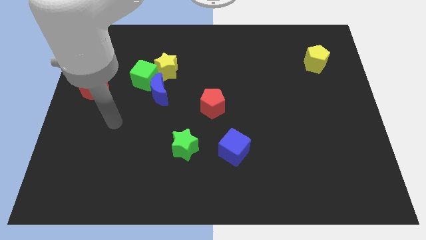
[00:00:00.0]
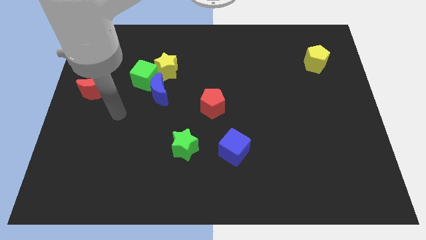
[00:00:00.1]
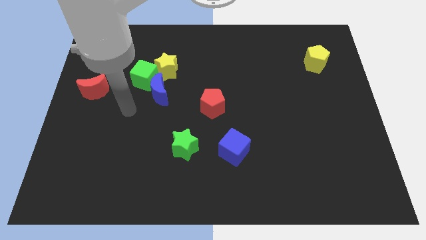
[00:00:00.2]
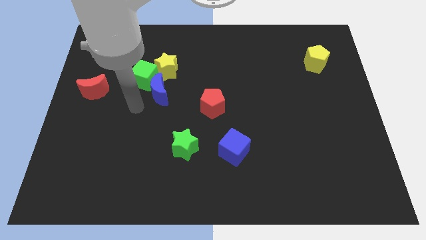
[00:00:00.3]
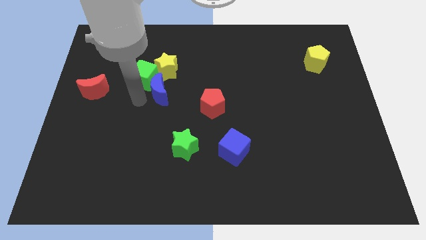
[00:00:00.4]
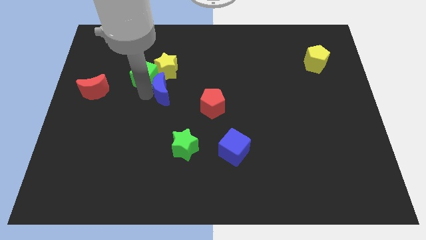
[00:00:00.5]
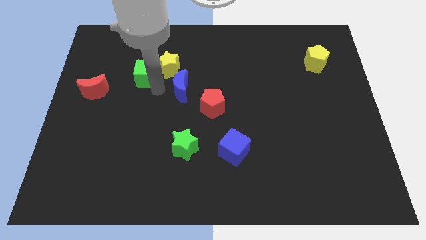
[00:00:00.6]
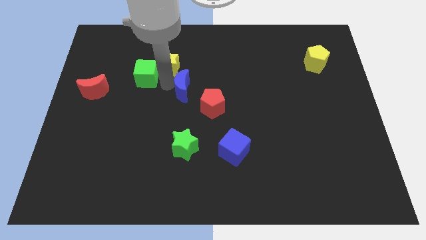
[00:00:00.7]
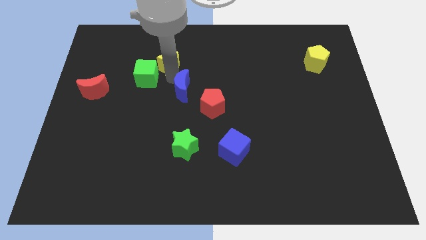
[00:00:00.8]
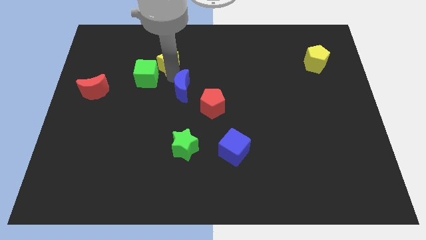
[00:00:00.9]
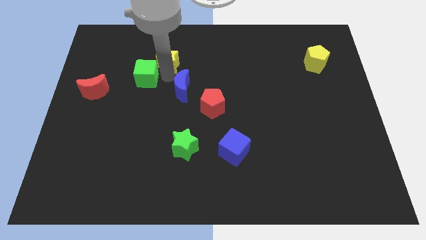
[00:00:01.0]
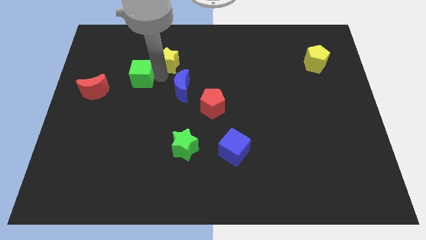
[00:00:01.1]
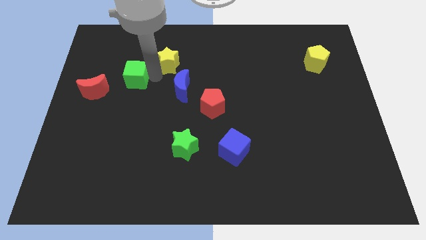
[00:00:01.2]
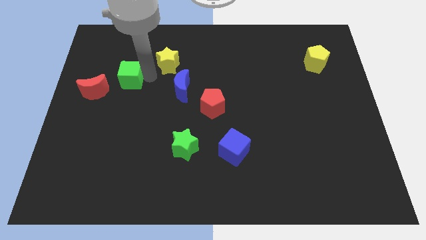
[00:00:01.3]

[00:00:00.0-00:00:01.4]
move the green cube away from the blue moon and yellow star

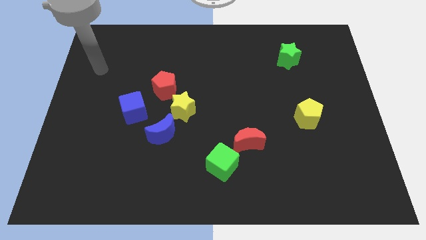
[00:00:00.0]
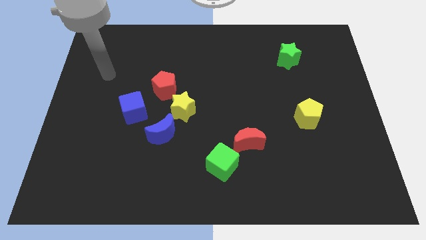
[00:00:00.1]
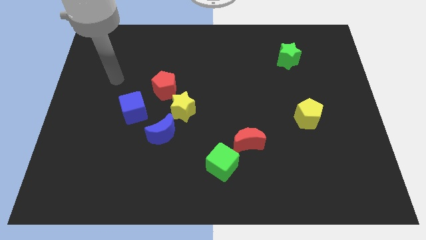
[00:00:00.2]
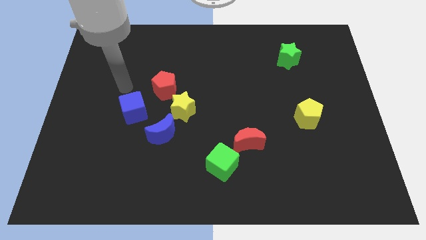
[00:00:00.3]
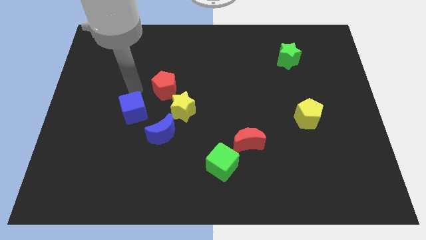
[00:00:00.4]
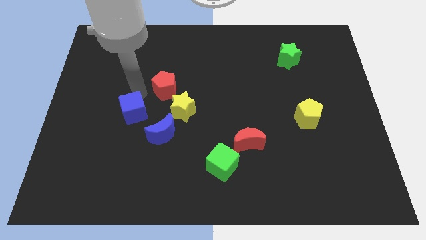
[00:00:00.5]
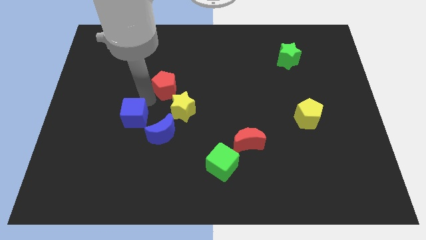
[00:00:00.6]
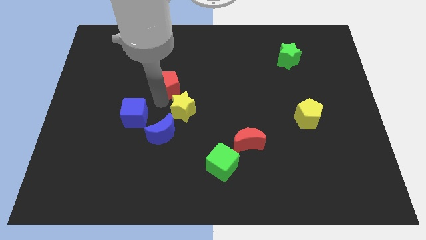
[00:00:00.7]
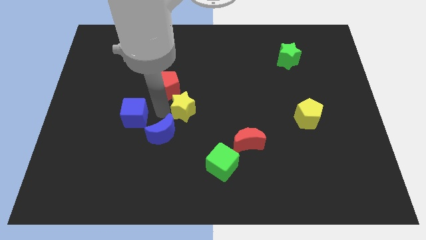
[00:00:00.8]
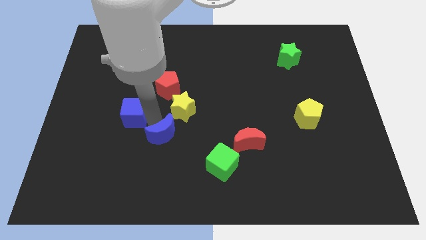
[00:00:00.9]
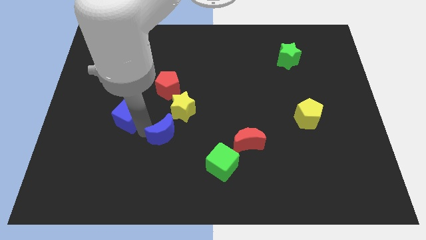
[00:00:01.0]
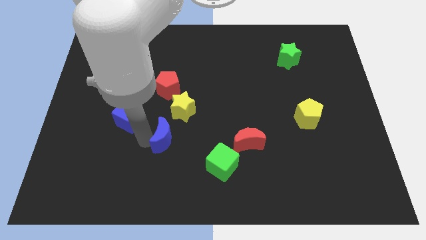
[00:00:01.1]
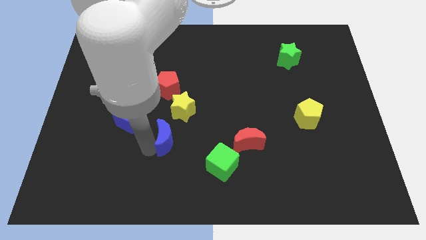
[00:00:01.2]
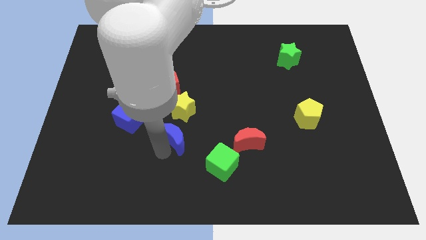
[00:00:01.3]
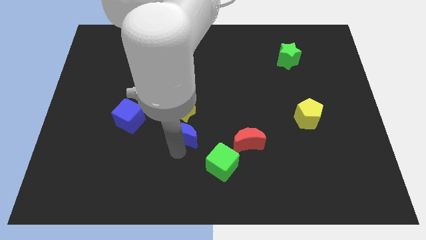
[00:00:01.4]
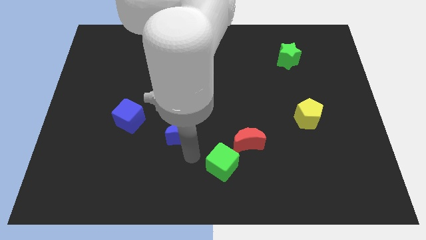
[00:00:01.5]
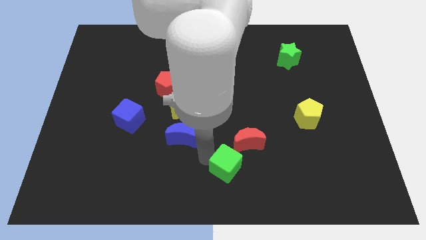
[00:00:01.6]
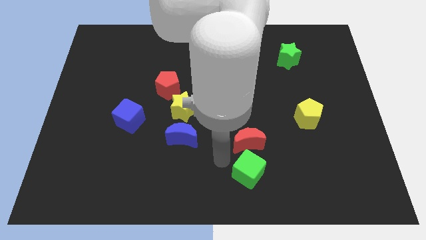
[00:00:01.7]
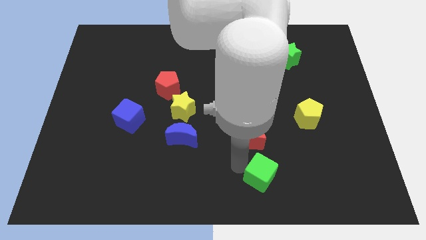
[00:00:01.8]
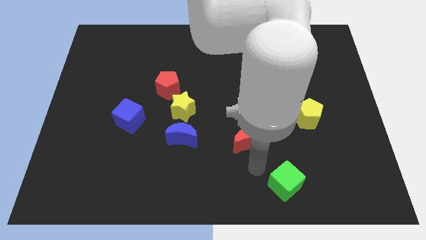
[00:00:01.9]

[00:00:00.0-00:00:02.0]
separate the red moon from the green cube

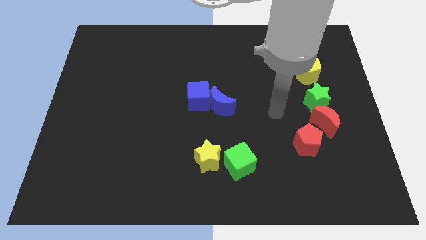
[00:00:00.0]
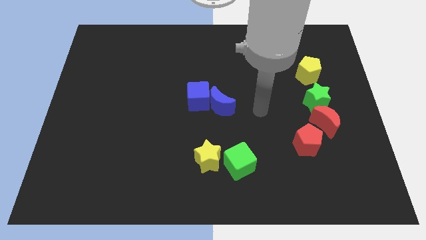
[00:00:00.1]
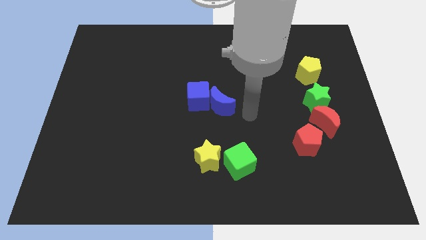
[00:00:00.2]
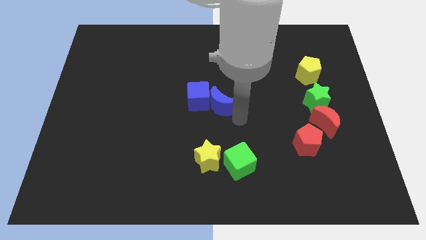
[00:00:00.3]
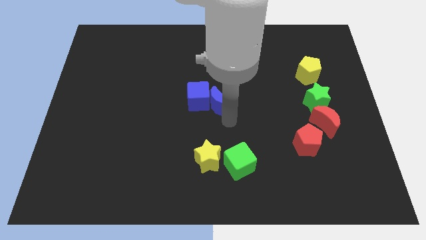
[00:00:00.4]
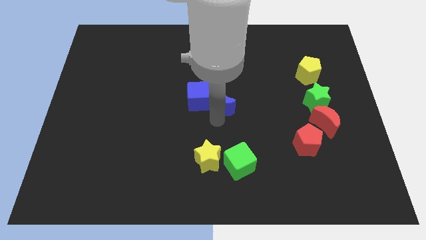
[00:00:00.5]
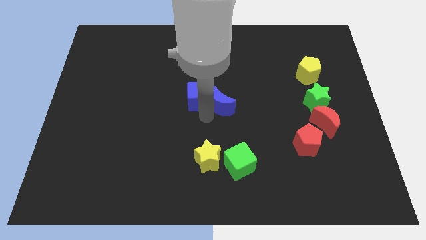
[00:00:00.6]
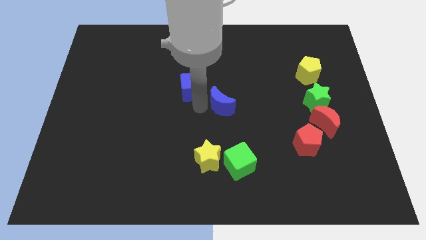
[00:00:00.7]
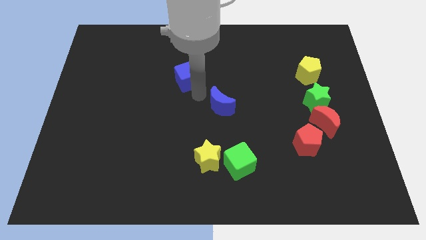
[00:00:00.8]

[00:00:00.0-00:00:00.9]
separate the blue moon from the blue cube

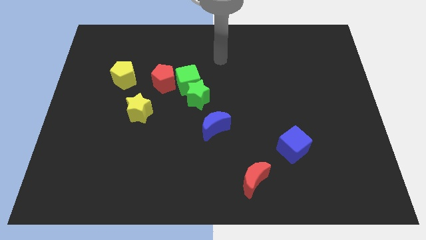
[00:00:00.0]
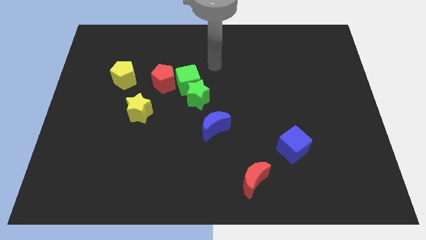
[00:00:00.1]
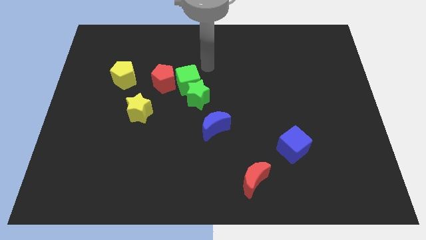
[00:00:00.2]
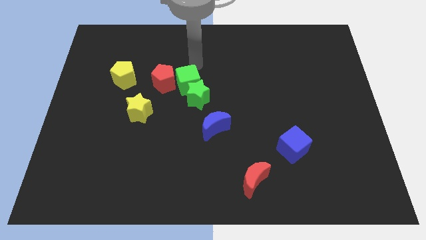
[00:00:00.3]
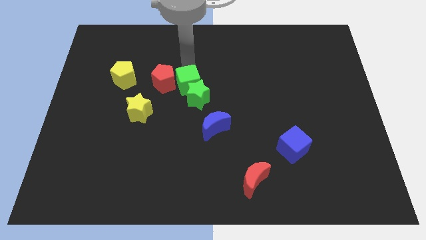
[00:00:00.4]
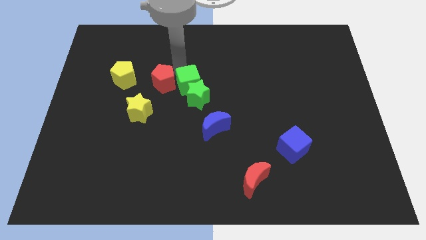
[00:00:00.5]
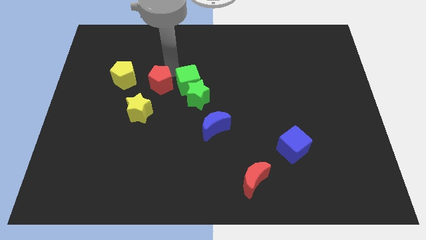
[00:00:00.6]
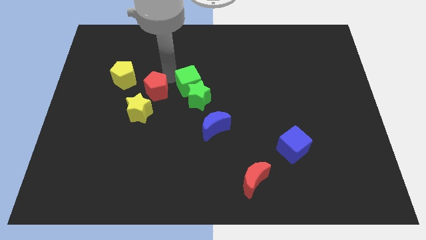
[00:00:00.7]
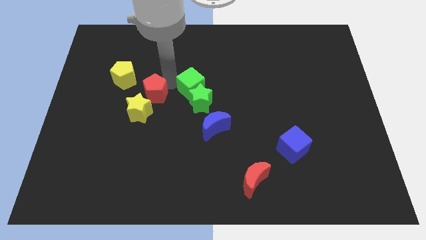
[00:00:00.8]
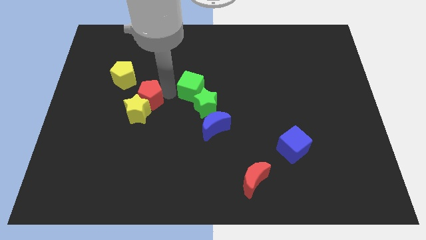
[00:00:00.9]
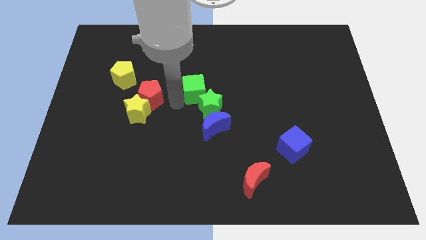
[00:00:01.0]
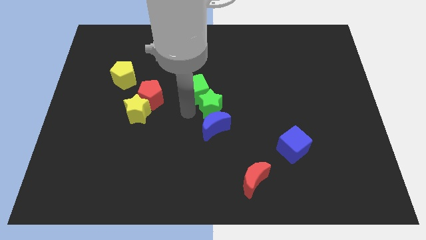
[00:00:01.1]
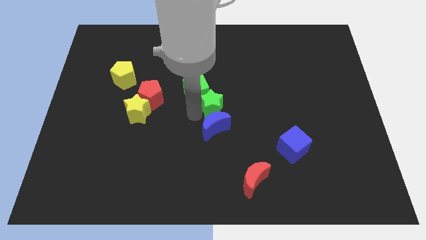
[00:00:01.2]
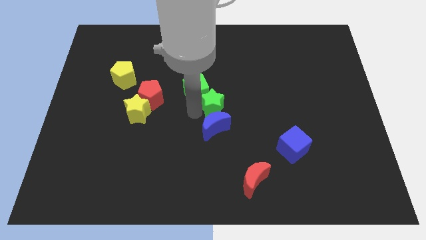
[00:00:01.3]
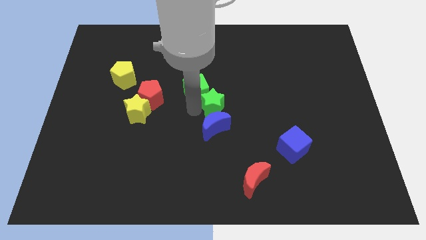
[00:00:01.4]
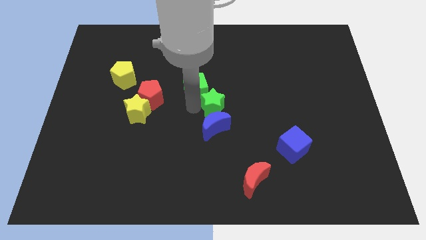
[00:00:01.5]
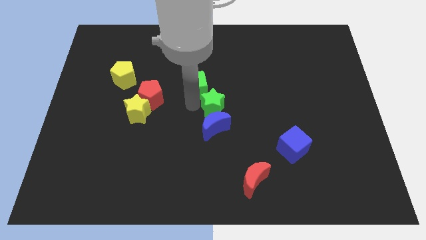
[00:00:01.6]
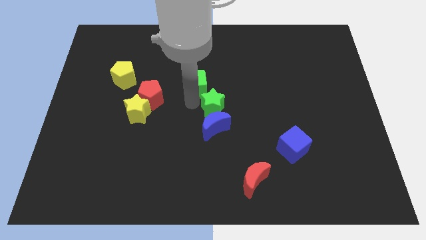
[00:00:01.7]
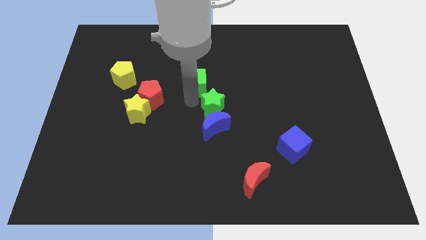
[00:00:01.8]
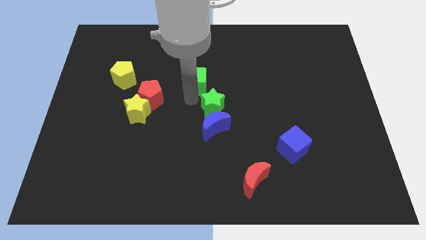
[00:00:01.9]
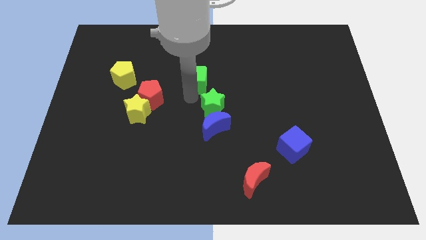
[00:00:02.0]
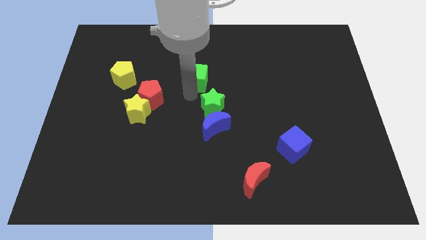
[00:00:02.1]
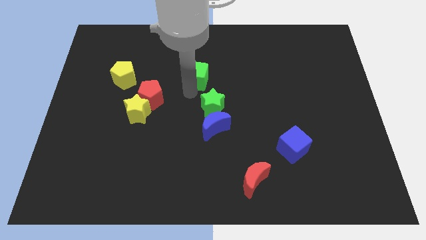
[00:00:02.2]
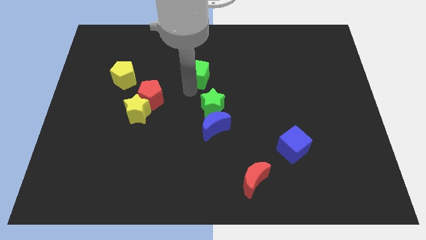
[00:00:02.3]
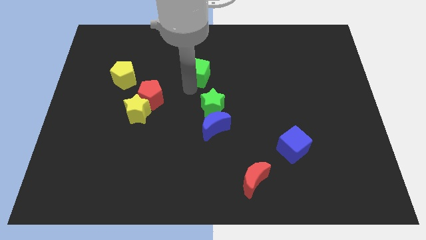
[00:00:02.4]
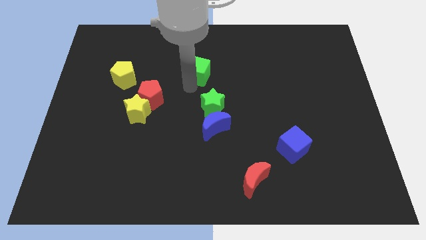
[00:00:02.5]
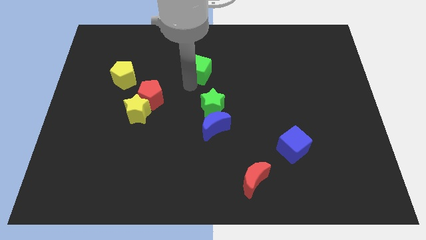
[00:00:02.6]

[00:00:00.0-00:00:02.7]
separate the green cube from the green star and red pentagon

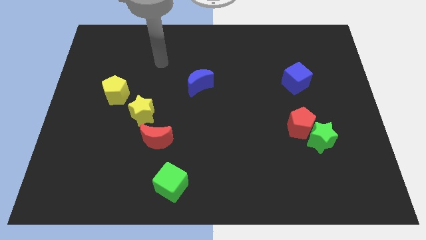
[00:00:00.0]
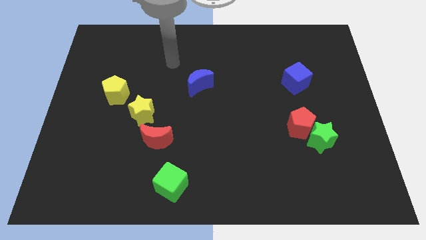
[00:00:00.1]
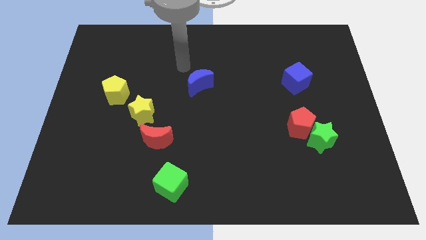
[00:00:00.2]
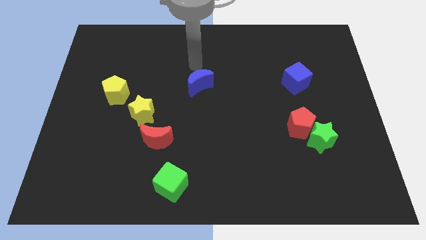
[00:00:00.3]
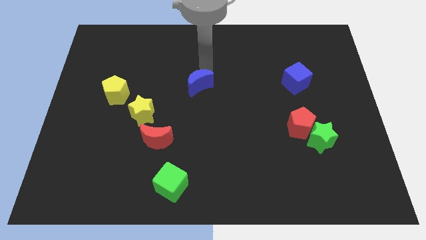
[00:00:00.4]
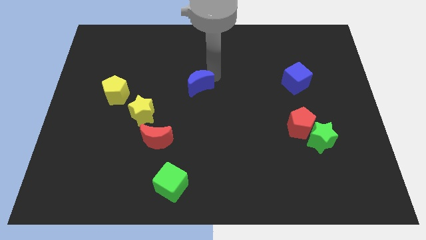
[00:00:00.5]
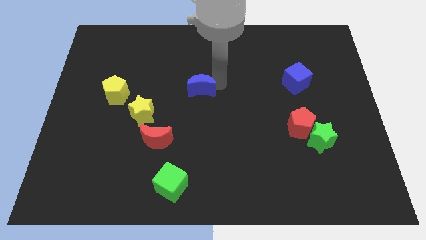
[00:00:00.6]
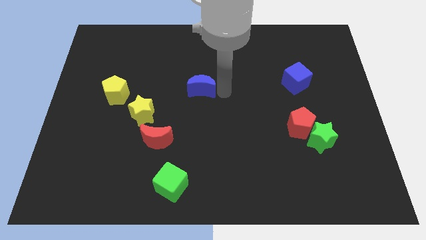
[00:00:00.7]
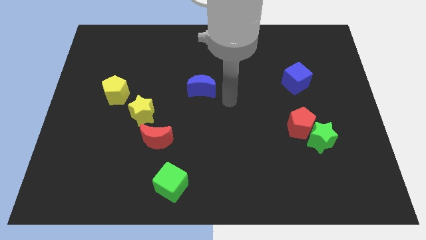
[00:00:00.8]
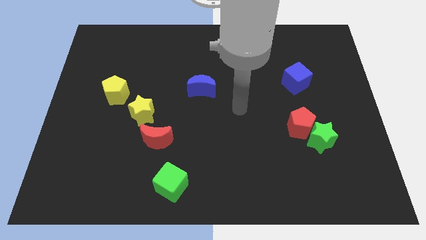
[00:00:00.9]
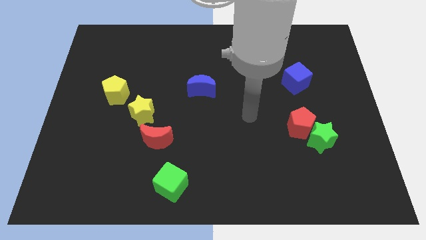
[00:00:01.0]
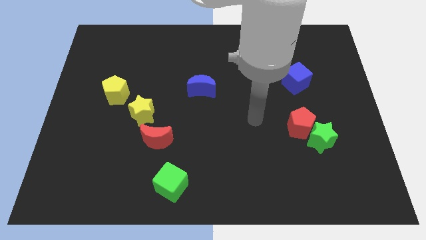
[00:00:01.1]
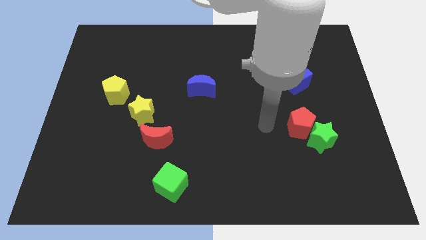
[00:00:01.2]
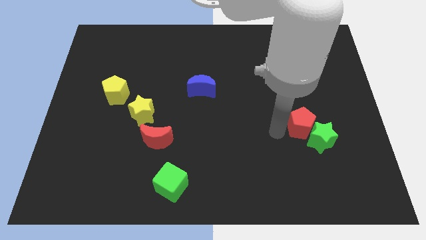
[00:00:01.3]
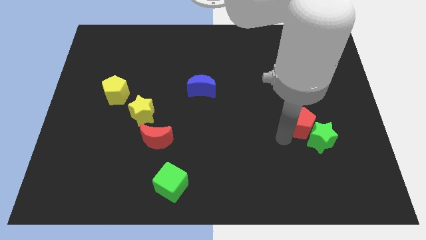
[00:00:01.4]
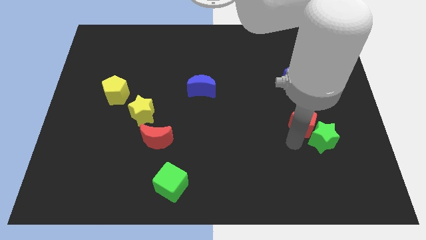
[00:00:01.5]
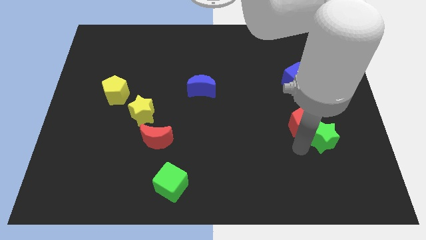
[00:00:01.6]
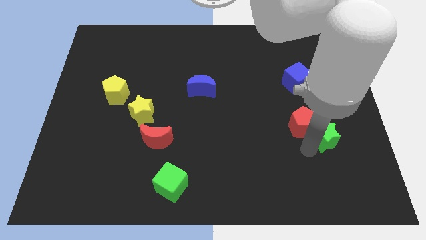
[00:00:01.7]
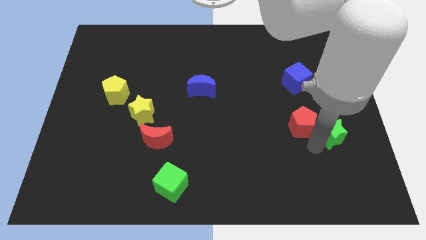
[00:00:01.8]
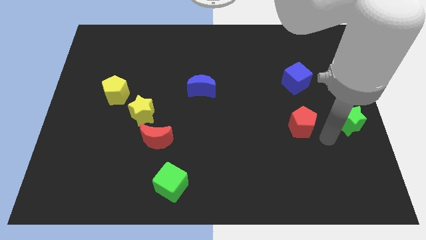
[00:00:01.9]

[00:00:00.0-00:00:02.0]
move the red pentagon away from the green star

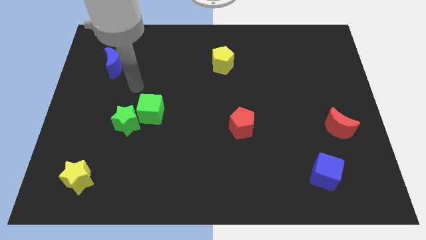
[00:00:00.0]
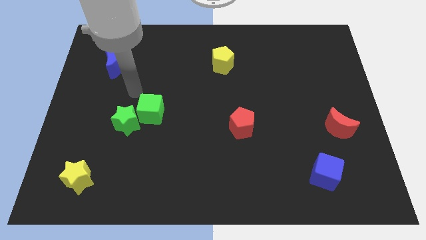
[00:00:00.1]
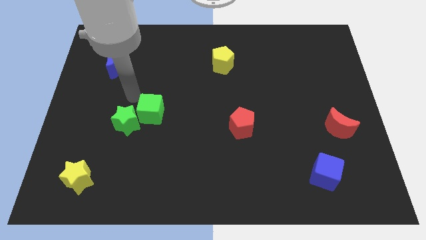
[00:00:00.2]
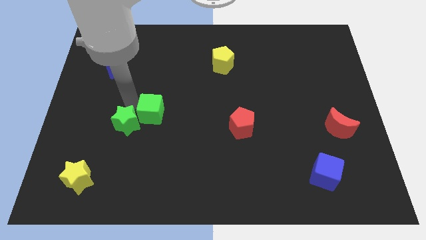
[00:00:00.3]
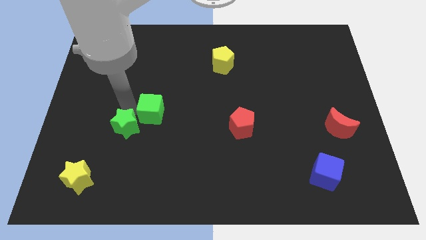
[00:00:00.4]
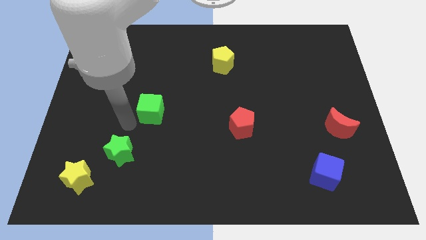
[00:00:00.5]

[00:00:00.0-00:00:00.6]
separate the green cube from the green star
